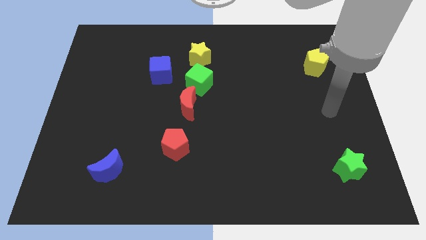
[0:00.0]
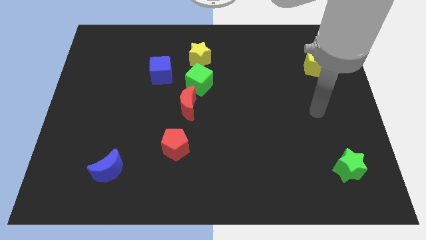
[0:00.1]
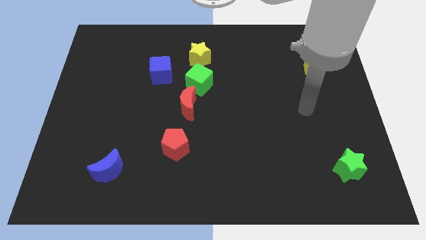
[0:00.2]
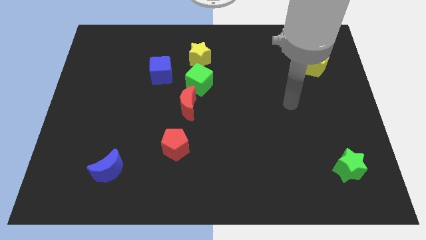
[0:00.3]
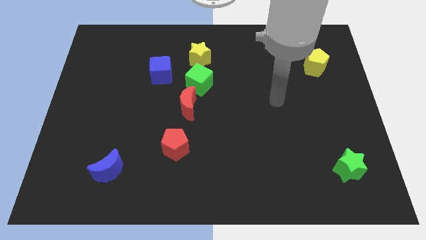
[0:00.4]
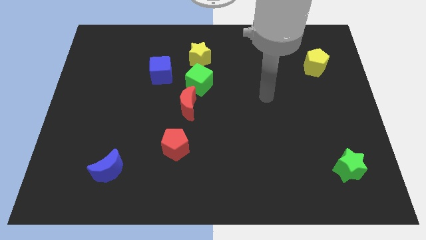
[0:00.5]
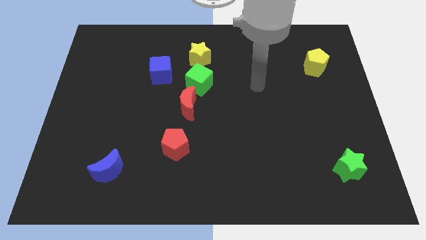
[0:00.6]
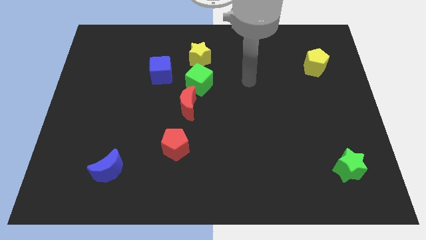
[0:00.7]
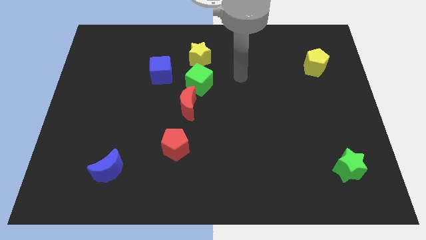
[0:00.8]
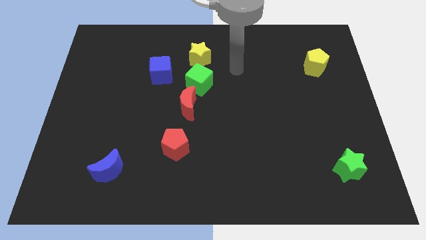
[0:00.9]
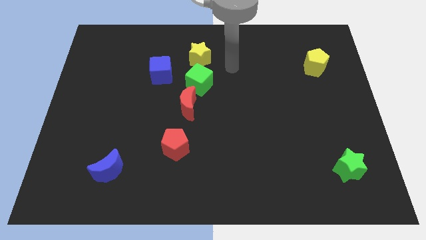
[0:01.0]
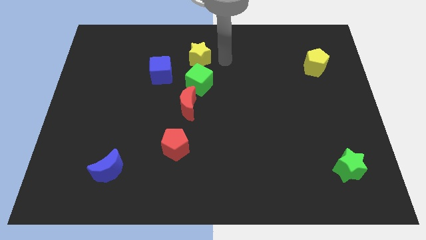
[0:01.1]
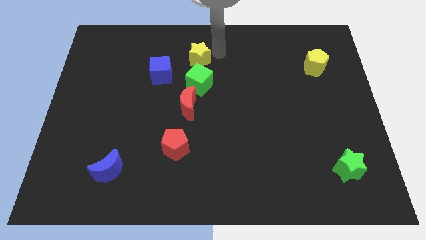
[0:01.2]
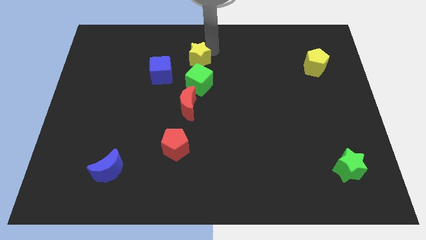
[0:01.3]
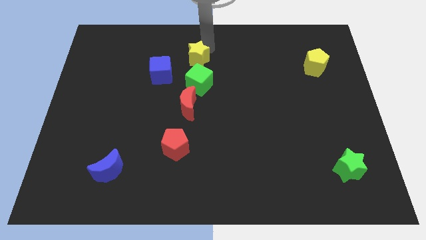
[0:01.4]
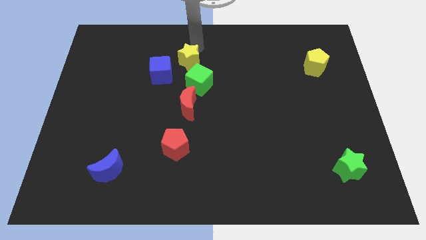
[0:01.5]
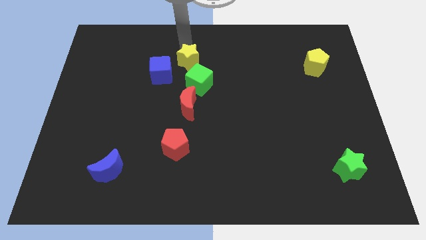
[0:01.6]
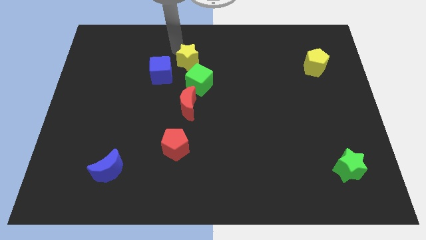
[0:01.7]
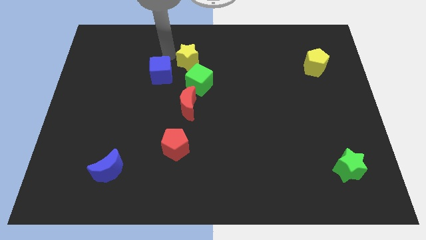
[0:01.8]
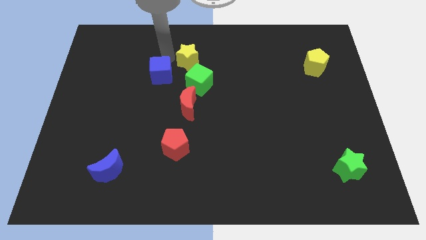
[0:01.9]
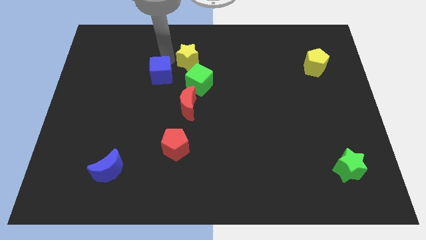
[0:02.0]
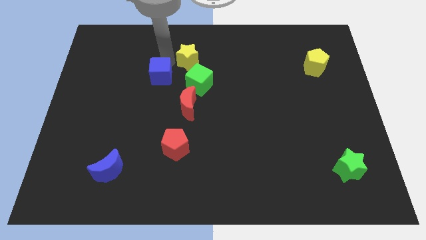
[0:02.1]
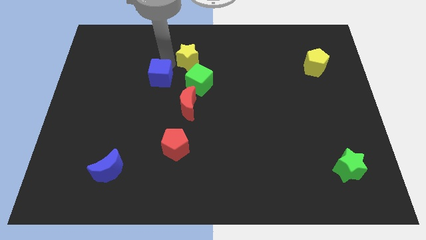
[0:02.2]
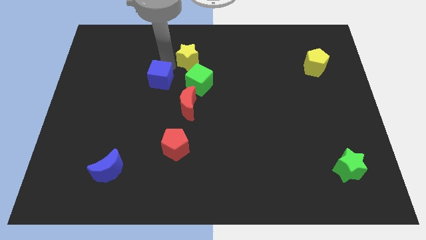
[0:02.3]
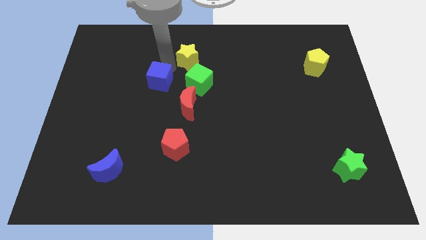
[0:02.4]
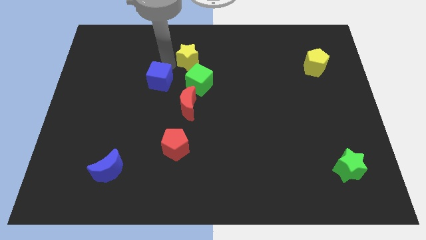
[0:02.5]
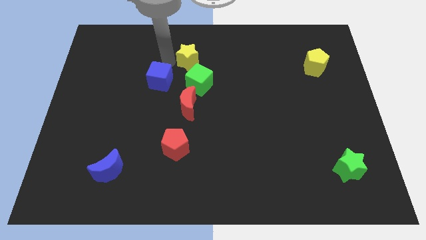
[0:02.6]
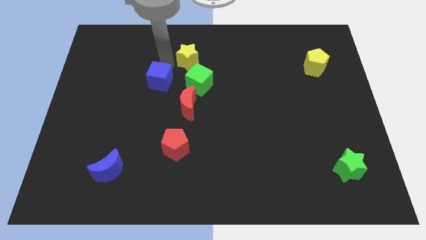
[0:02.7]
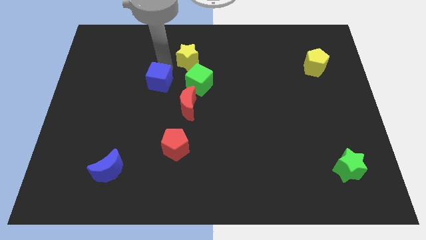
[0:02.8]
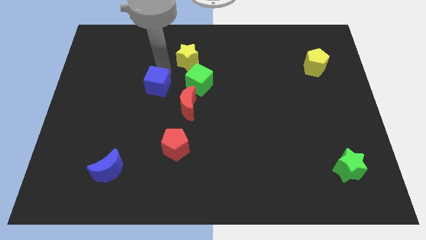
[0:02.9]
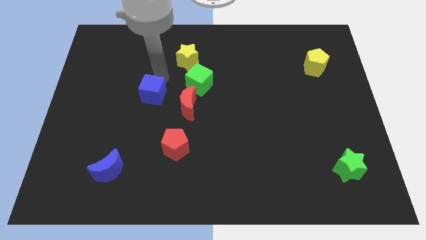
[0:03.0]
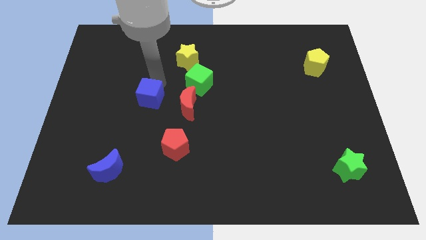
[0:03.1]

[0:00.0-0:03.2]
push the blue cube down a little

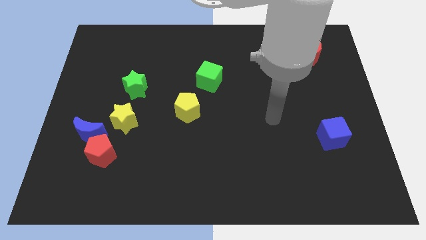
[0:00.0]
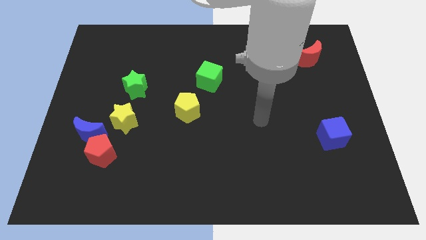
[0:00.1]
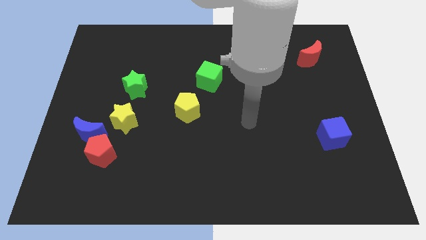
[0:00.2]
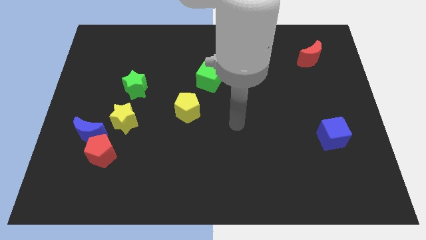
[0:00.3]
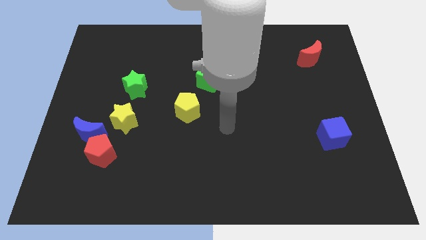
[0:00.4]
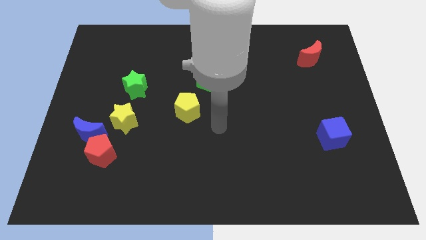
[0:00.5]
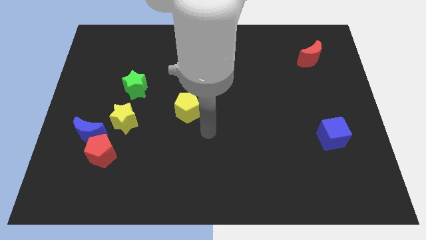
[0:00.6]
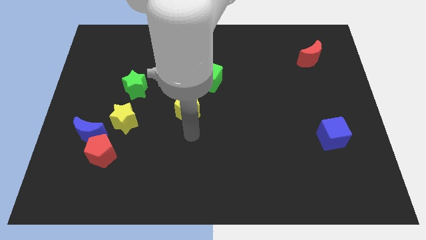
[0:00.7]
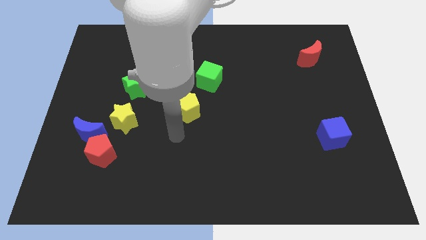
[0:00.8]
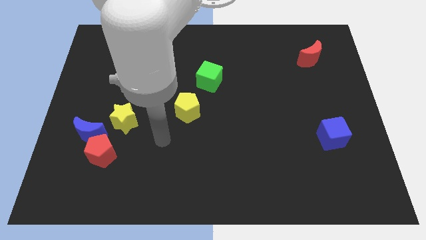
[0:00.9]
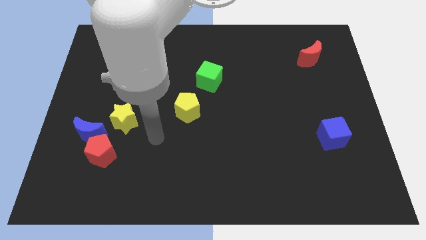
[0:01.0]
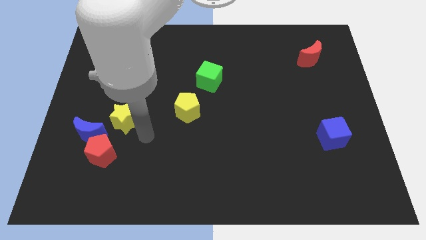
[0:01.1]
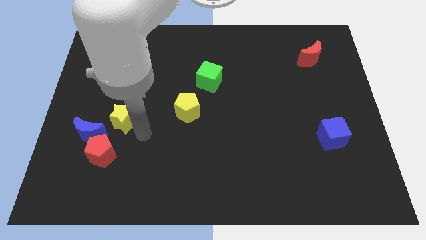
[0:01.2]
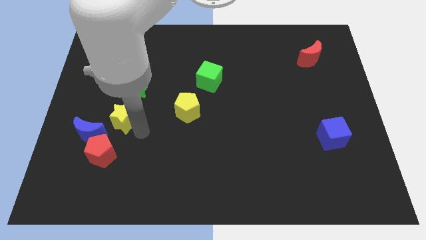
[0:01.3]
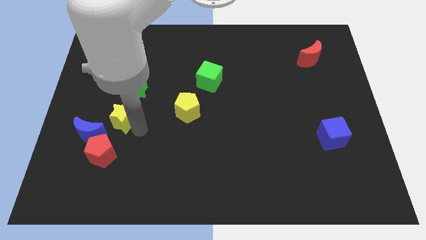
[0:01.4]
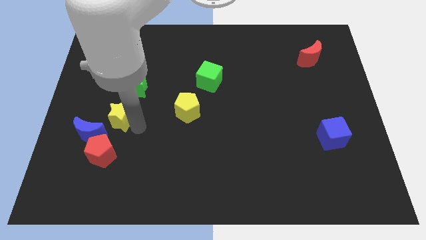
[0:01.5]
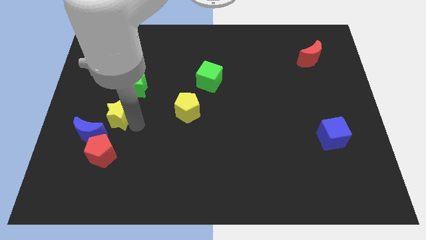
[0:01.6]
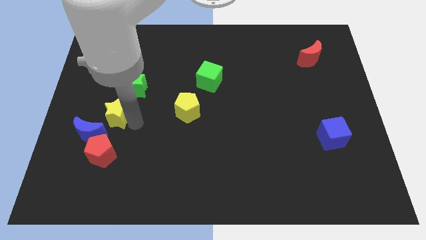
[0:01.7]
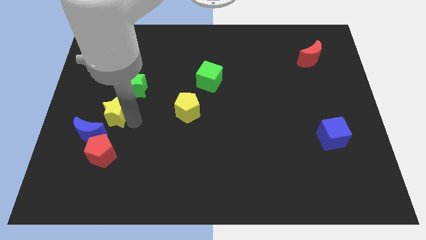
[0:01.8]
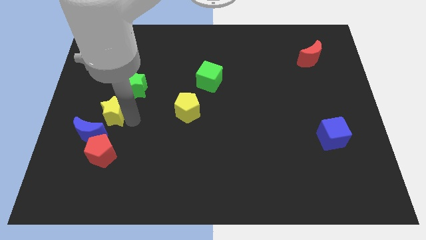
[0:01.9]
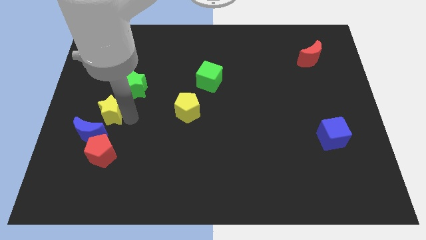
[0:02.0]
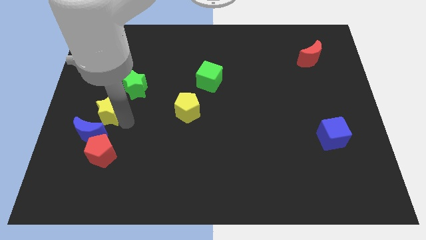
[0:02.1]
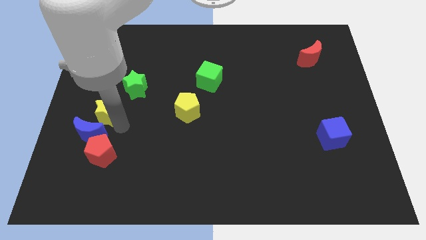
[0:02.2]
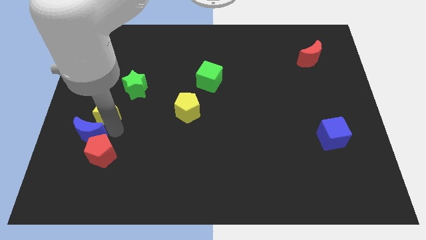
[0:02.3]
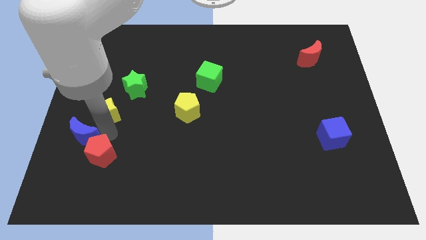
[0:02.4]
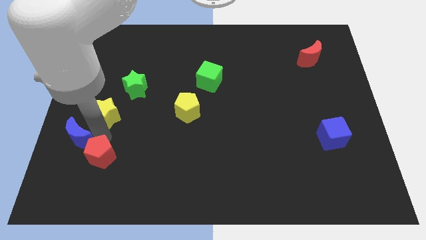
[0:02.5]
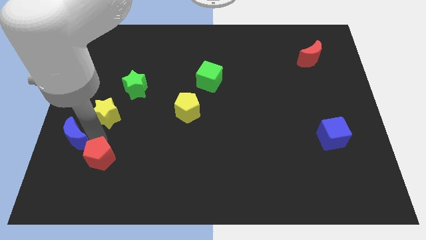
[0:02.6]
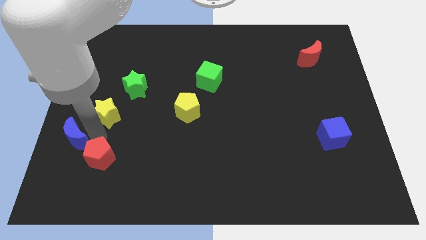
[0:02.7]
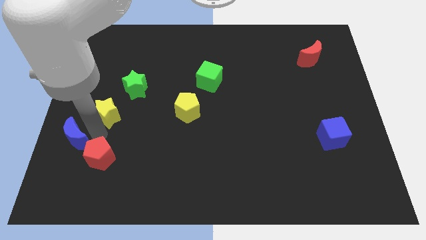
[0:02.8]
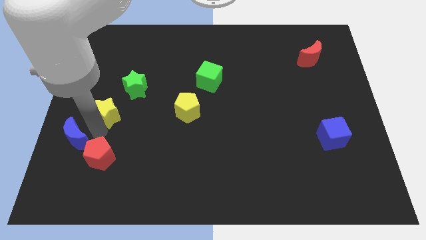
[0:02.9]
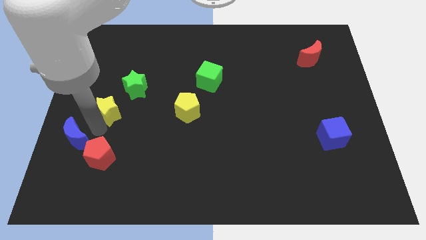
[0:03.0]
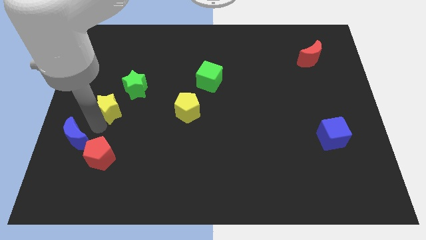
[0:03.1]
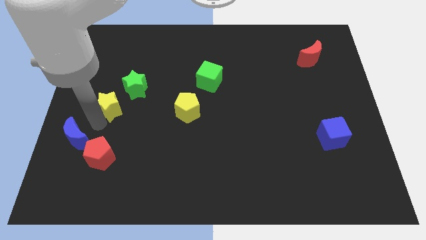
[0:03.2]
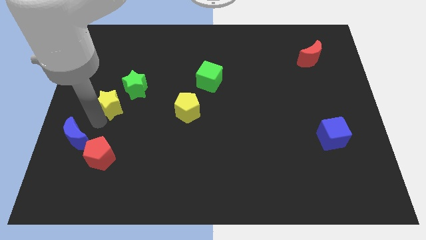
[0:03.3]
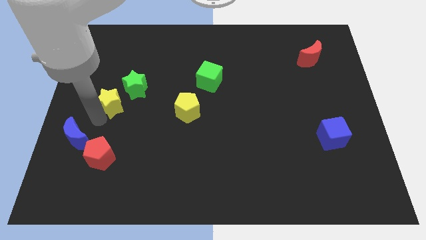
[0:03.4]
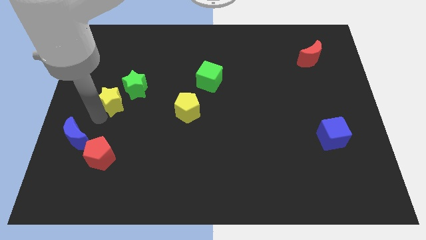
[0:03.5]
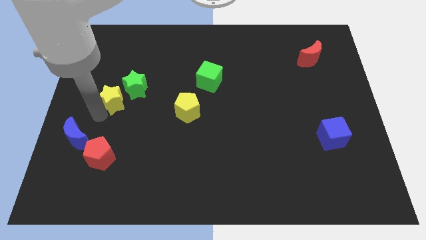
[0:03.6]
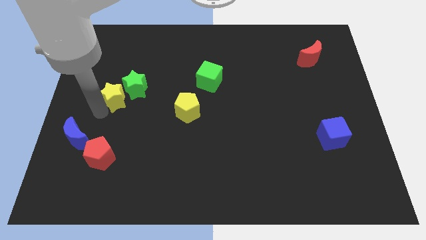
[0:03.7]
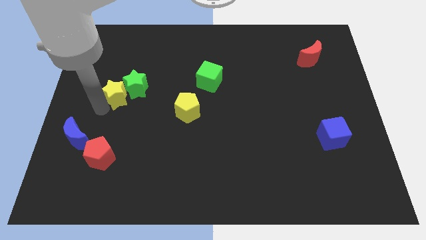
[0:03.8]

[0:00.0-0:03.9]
slightly move the yellow star up

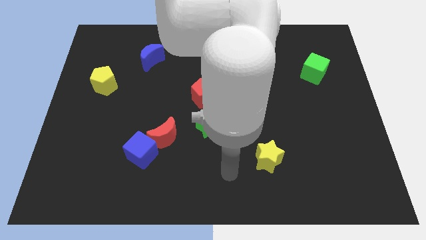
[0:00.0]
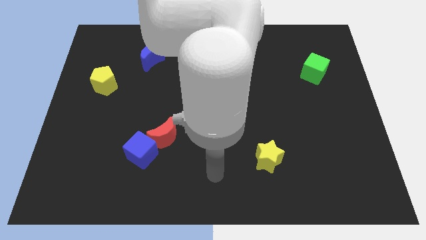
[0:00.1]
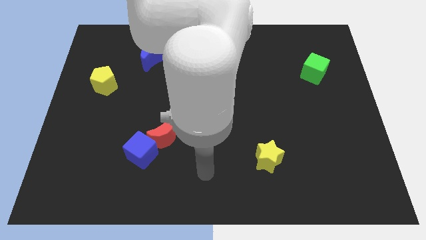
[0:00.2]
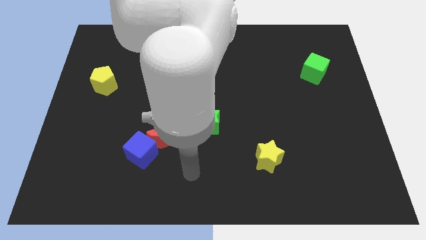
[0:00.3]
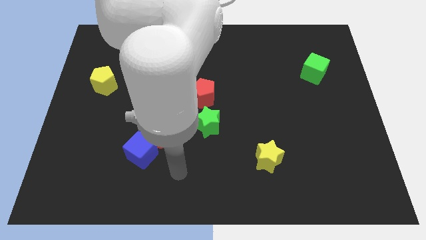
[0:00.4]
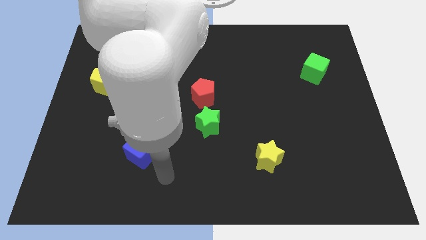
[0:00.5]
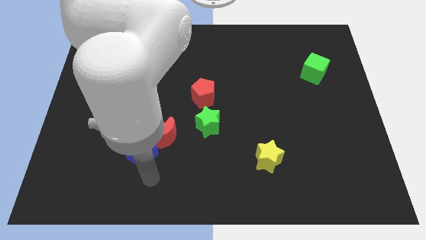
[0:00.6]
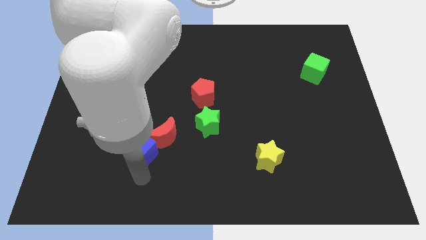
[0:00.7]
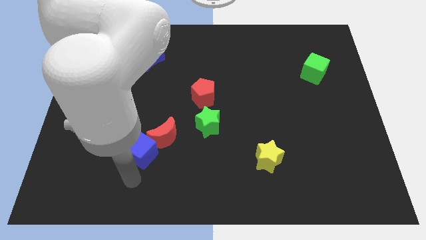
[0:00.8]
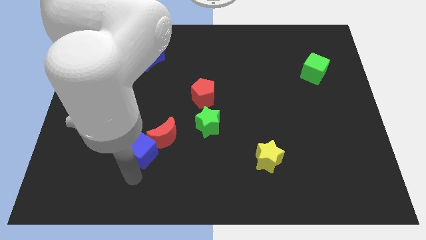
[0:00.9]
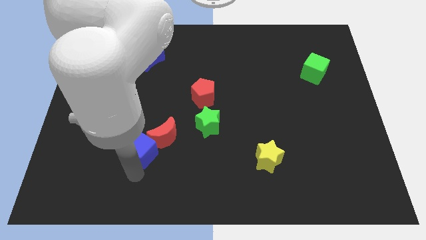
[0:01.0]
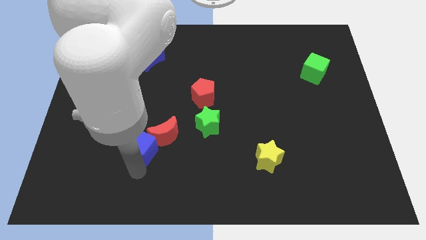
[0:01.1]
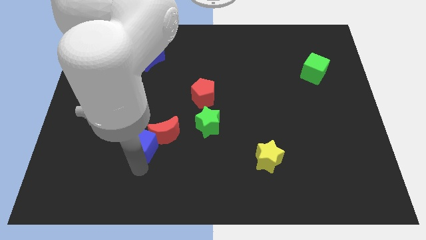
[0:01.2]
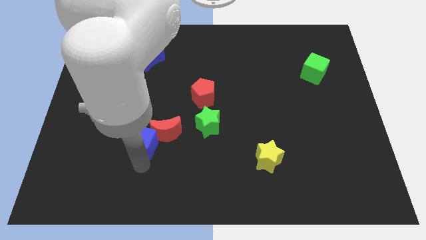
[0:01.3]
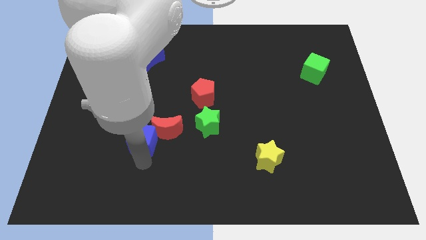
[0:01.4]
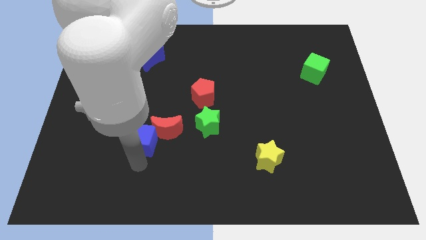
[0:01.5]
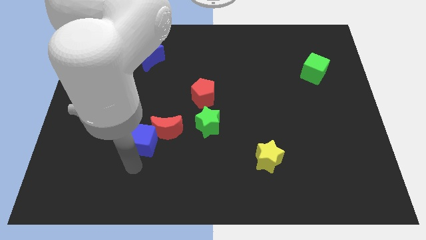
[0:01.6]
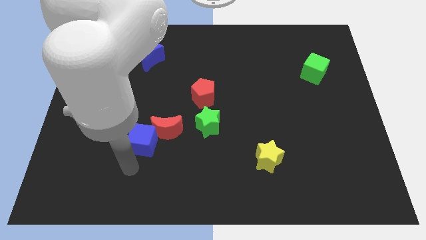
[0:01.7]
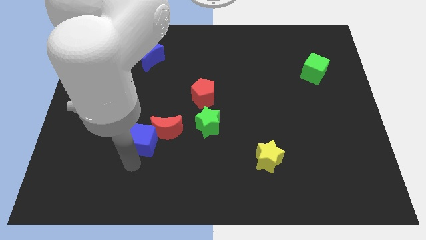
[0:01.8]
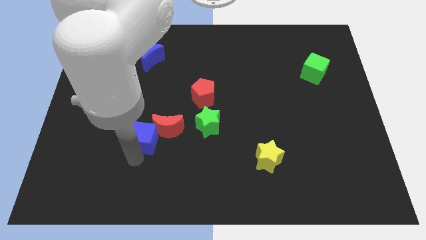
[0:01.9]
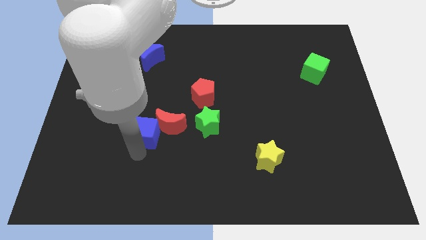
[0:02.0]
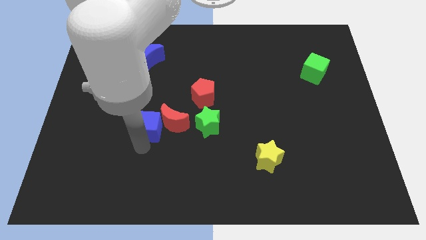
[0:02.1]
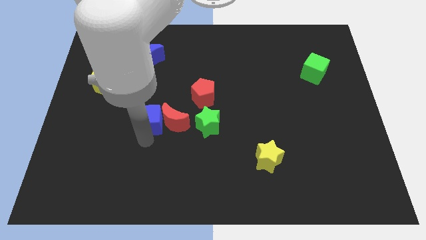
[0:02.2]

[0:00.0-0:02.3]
slide the blue cube upwards a little
